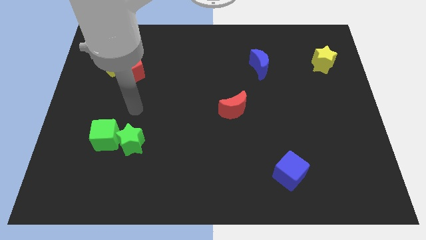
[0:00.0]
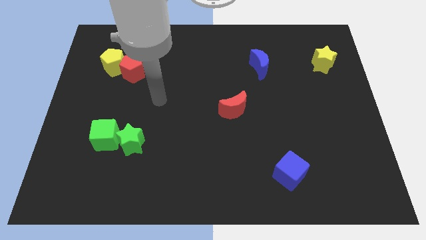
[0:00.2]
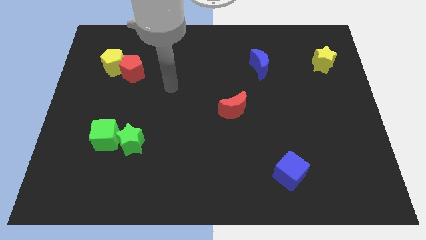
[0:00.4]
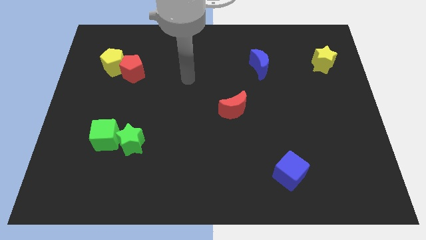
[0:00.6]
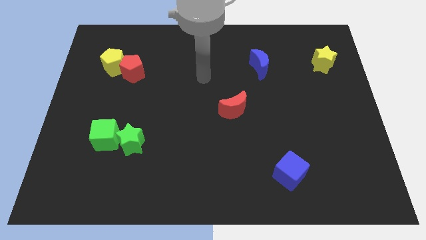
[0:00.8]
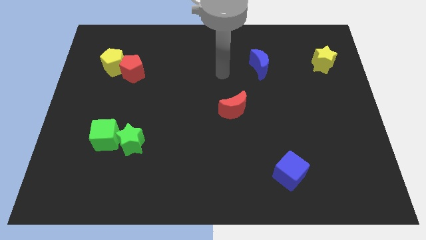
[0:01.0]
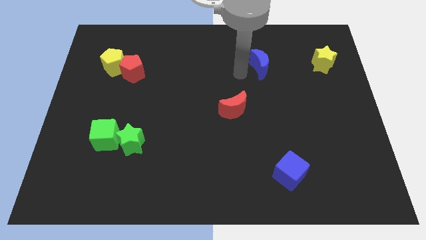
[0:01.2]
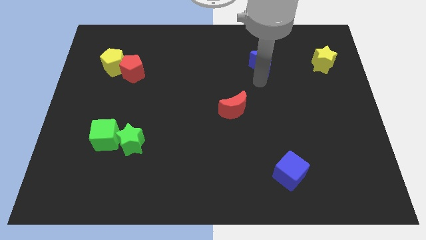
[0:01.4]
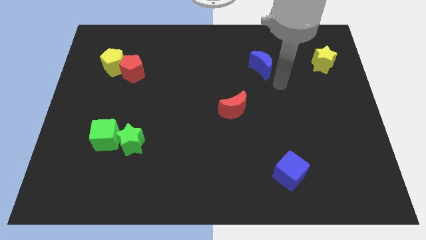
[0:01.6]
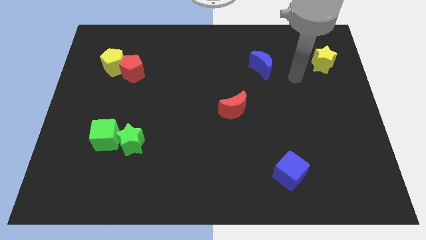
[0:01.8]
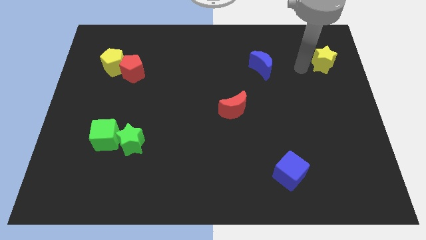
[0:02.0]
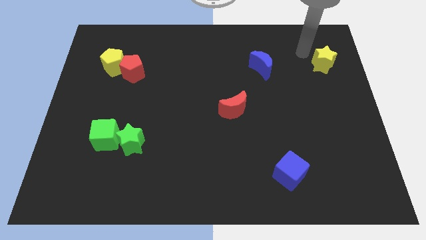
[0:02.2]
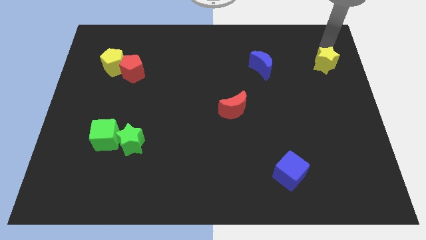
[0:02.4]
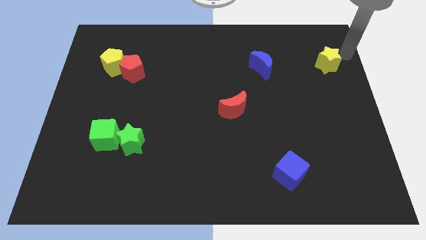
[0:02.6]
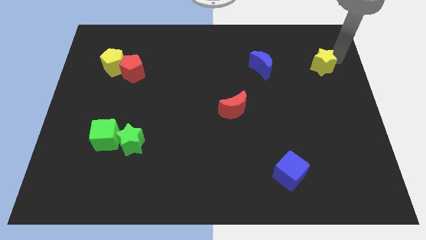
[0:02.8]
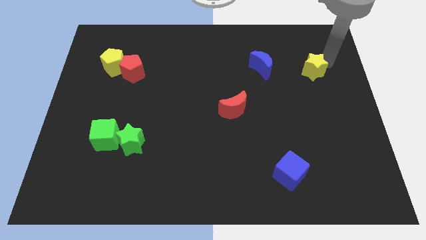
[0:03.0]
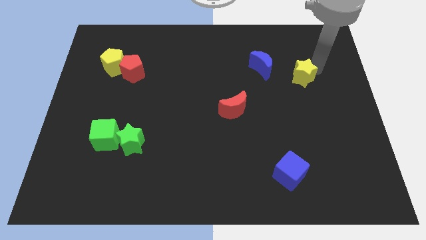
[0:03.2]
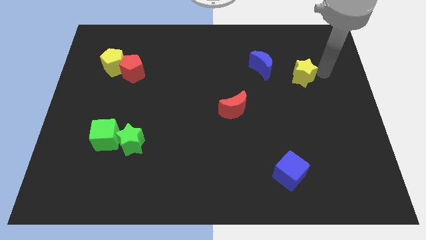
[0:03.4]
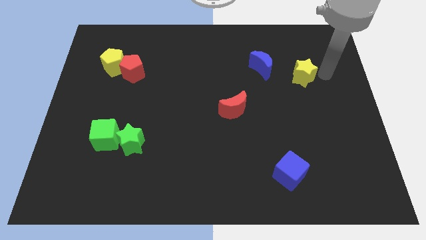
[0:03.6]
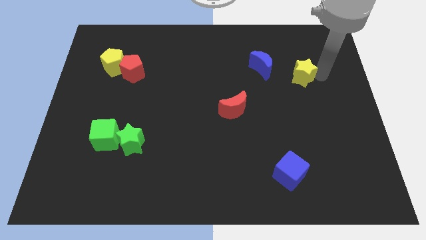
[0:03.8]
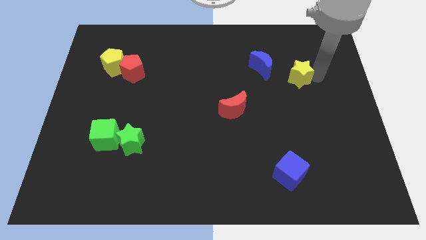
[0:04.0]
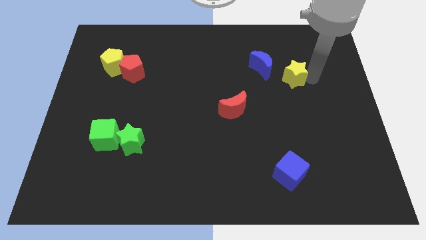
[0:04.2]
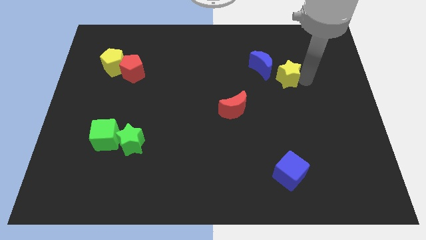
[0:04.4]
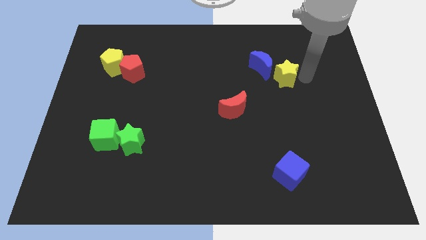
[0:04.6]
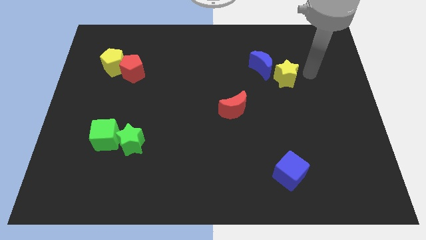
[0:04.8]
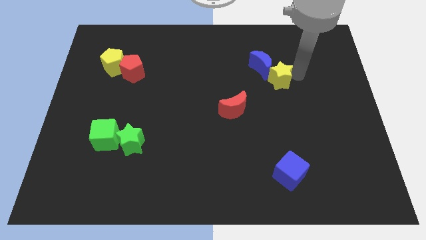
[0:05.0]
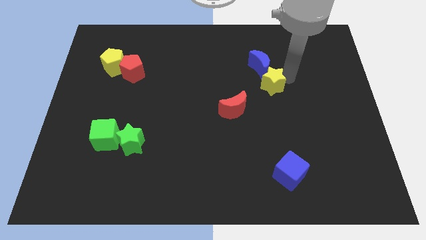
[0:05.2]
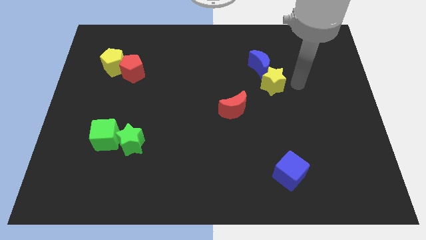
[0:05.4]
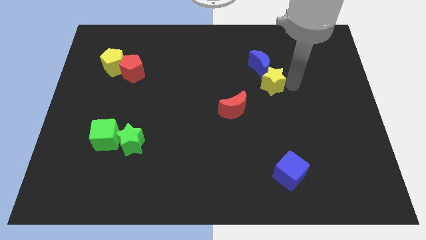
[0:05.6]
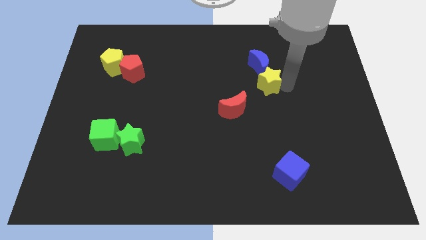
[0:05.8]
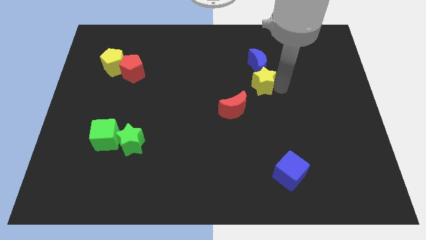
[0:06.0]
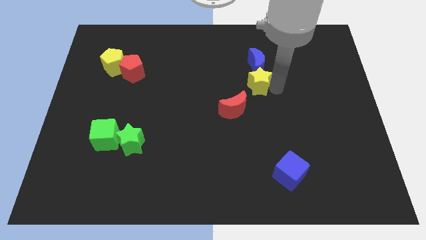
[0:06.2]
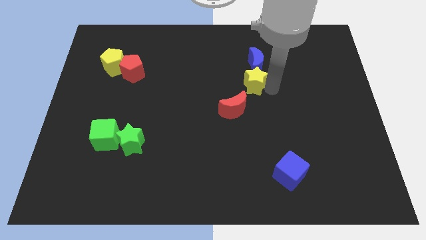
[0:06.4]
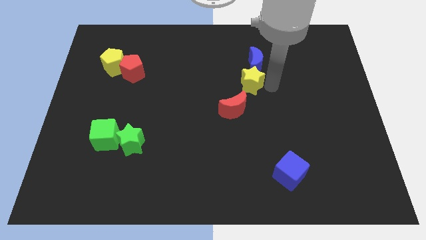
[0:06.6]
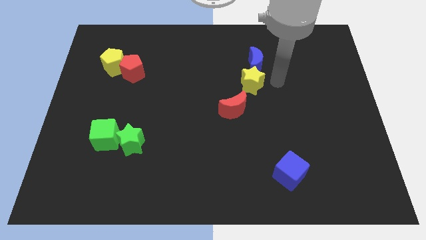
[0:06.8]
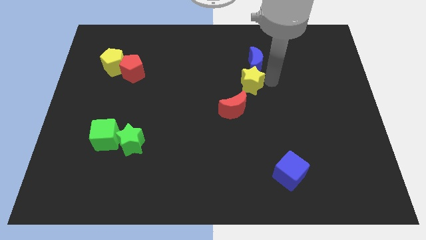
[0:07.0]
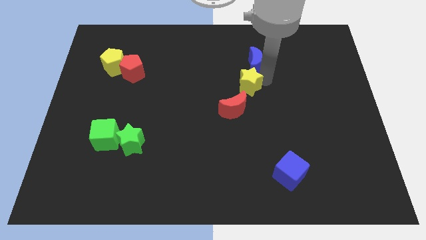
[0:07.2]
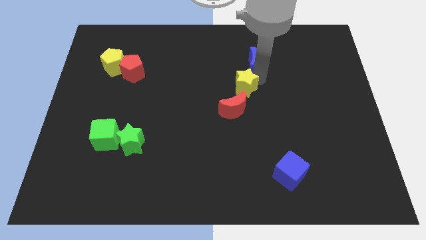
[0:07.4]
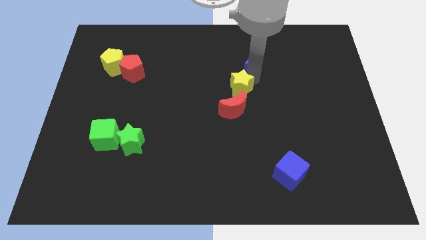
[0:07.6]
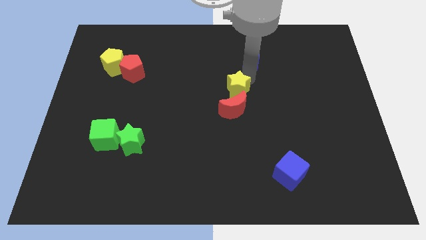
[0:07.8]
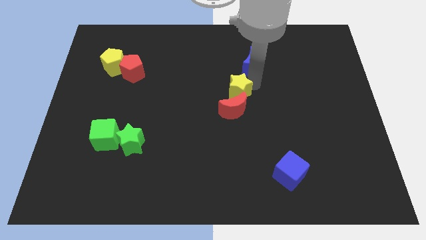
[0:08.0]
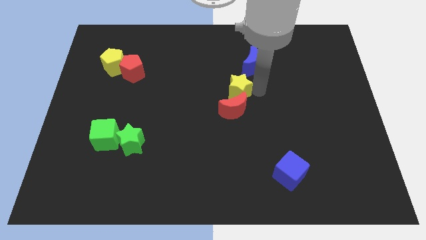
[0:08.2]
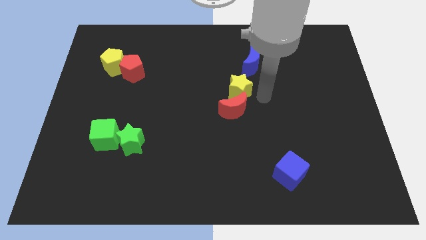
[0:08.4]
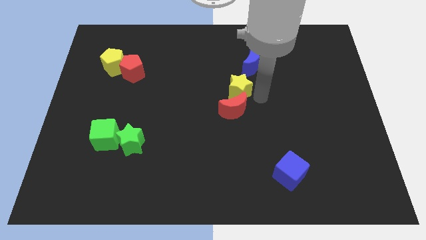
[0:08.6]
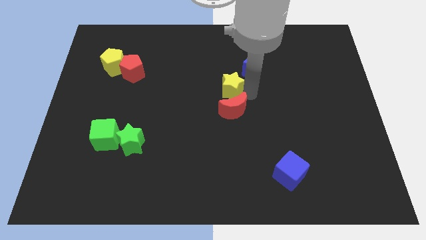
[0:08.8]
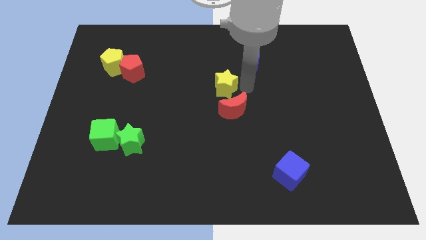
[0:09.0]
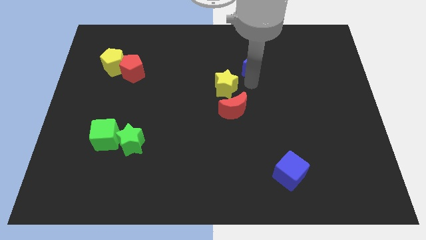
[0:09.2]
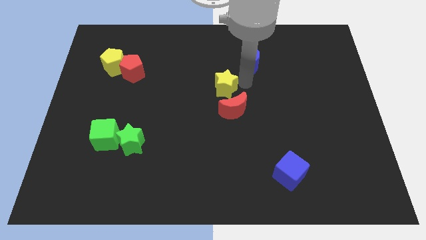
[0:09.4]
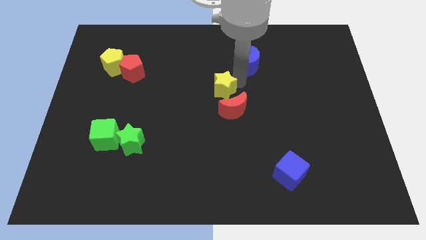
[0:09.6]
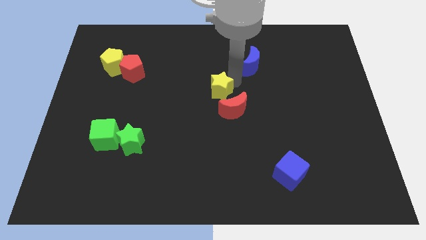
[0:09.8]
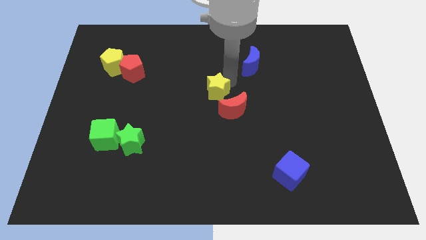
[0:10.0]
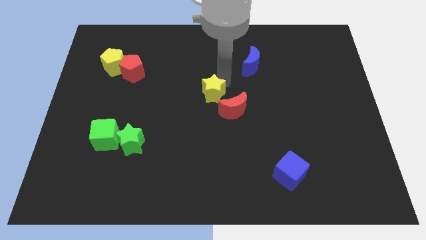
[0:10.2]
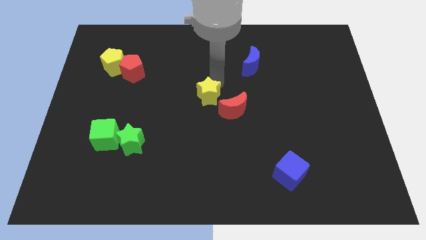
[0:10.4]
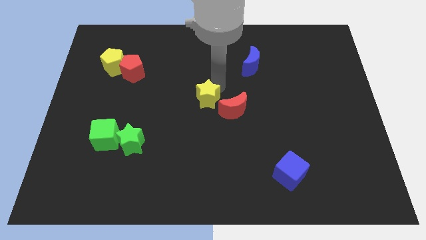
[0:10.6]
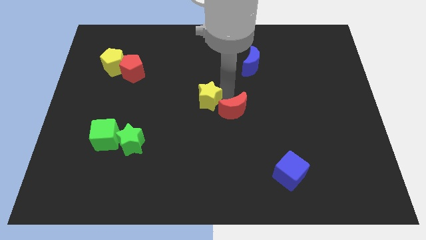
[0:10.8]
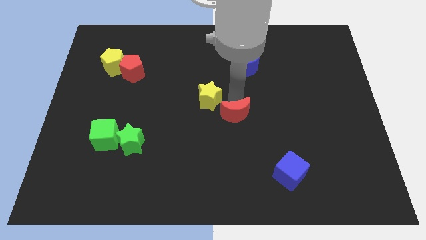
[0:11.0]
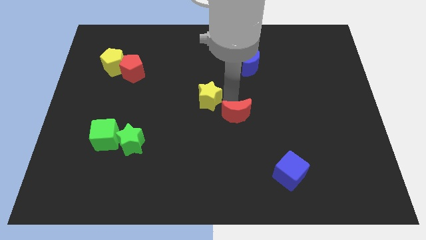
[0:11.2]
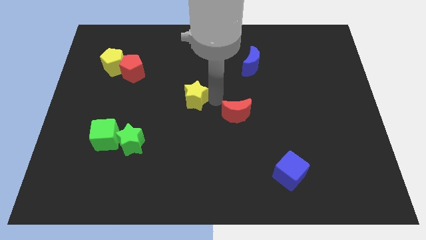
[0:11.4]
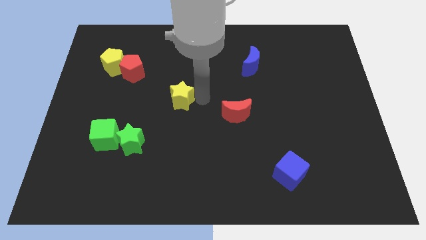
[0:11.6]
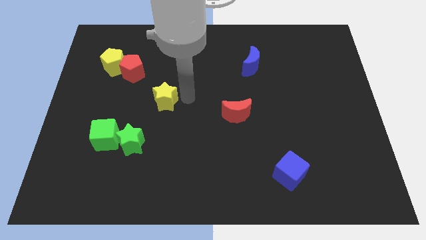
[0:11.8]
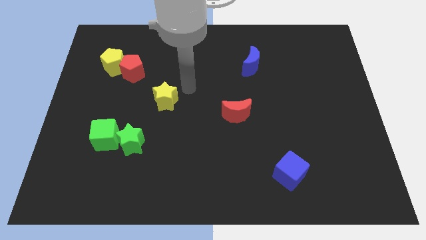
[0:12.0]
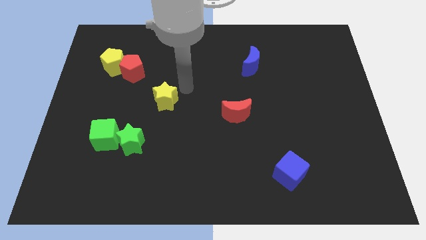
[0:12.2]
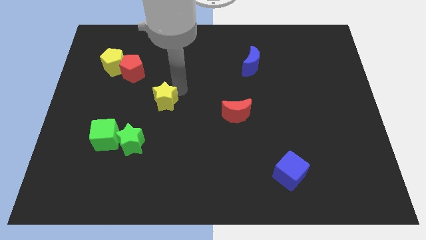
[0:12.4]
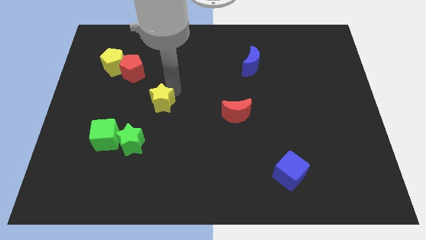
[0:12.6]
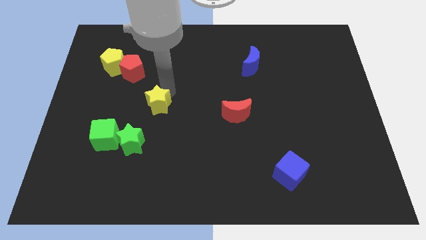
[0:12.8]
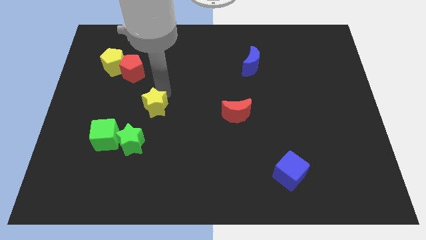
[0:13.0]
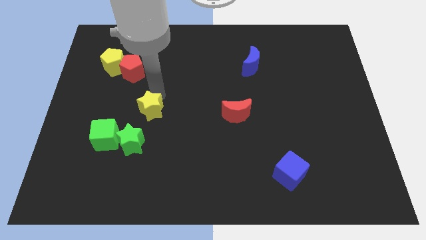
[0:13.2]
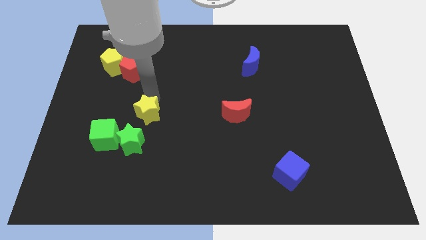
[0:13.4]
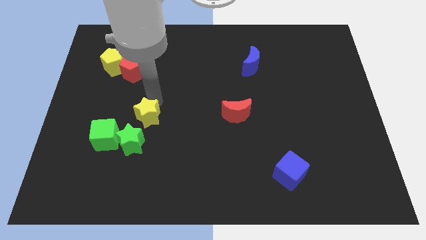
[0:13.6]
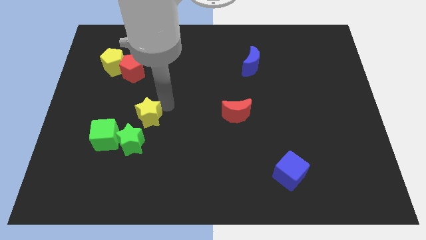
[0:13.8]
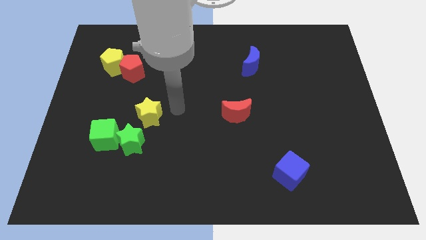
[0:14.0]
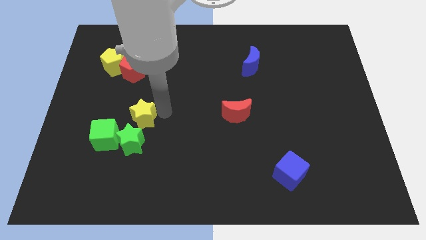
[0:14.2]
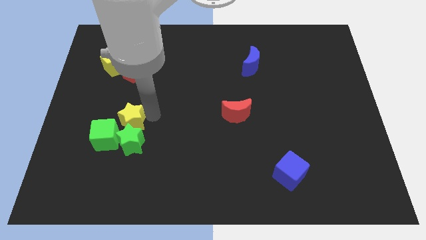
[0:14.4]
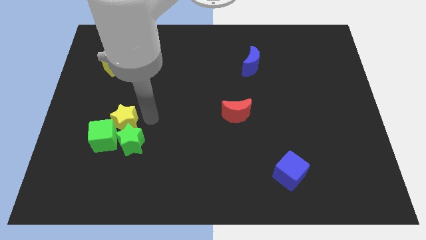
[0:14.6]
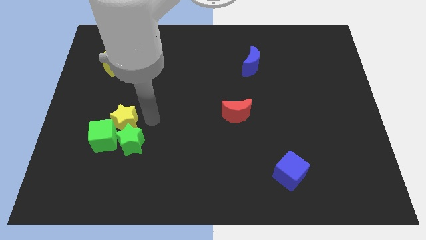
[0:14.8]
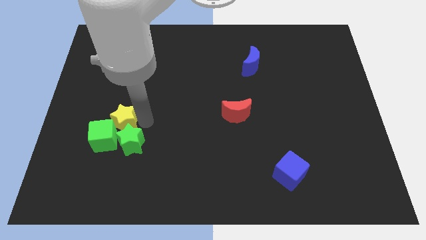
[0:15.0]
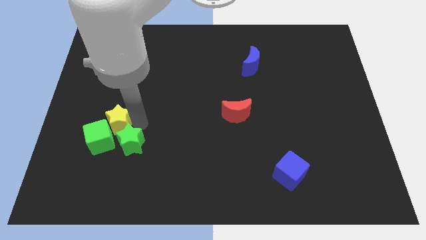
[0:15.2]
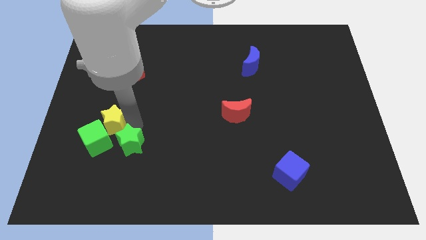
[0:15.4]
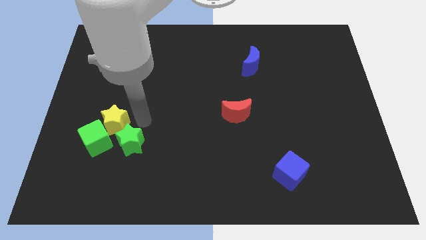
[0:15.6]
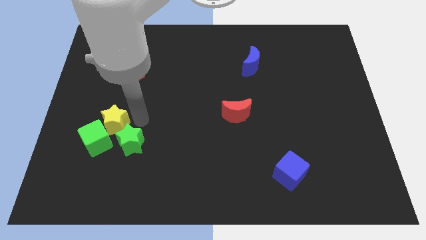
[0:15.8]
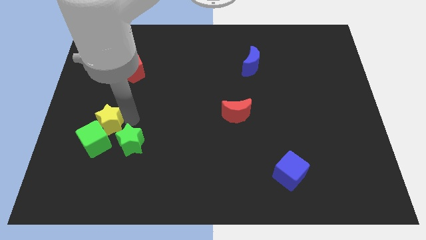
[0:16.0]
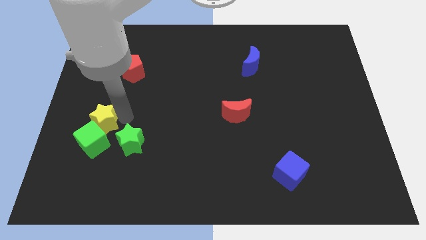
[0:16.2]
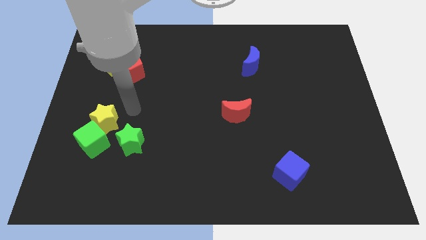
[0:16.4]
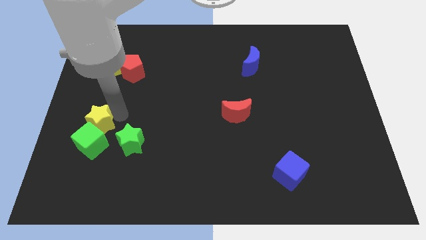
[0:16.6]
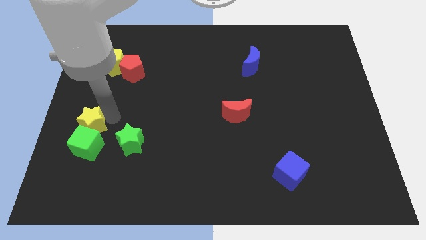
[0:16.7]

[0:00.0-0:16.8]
put the yellow star just left of the green star
